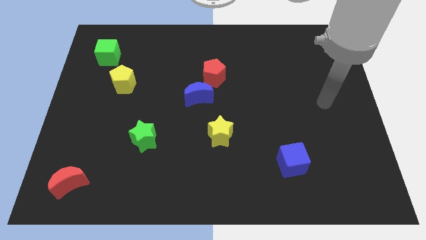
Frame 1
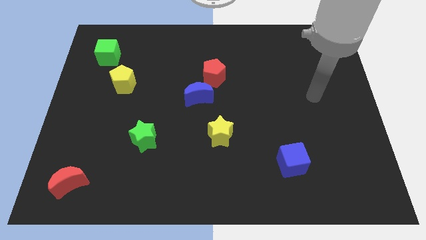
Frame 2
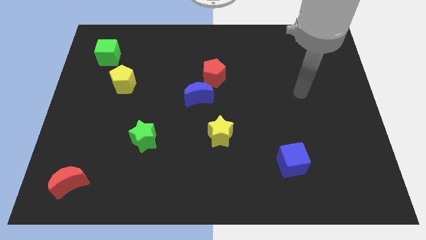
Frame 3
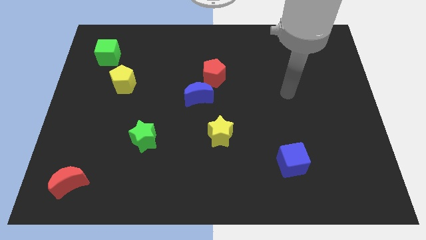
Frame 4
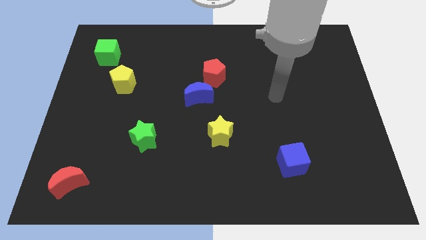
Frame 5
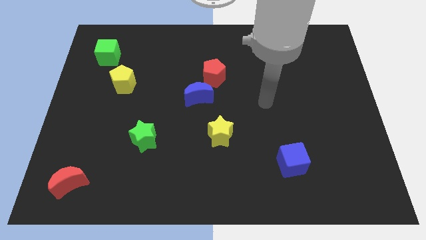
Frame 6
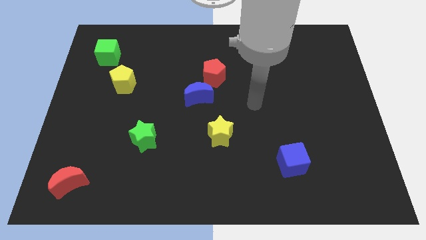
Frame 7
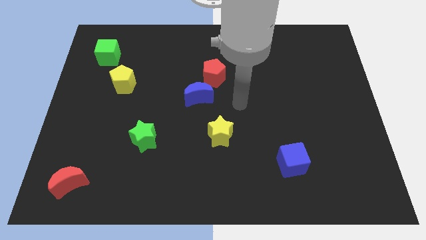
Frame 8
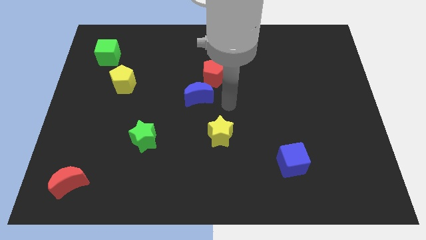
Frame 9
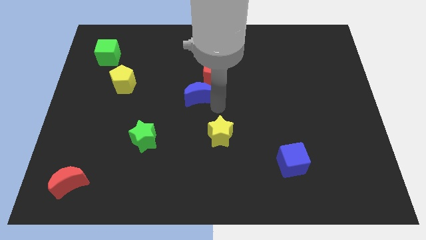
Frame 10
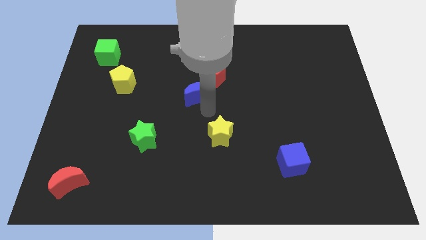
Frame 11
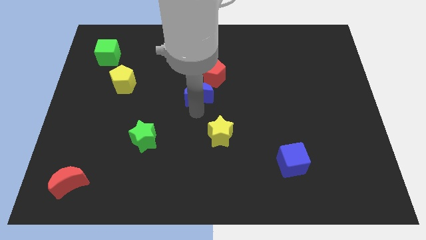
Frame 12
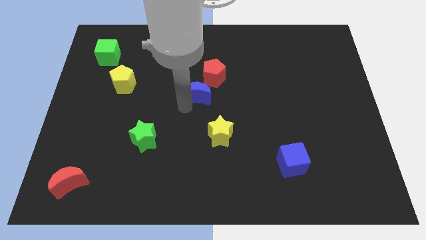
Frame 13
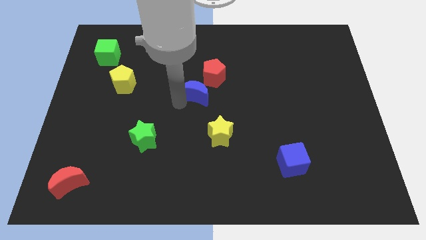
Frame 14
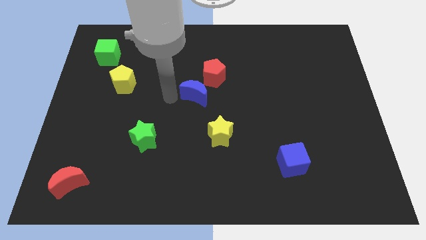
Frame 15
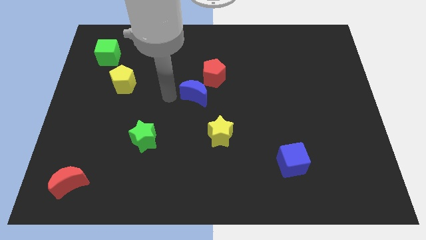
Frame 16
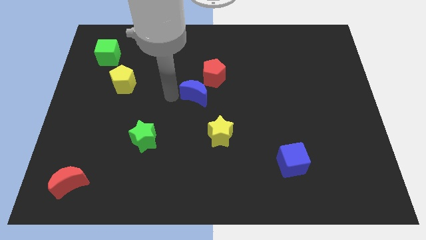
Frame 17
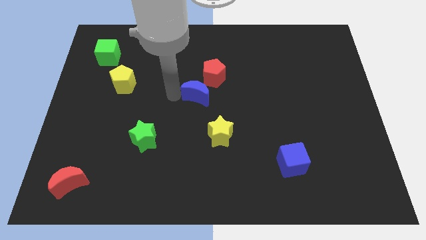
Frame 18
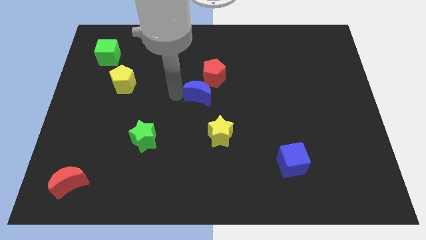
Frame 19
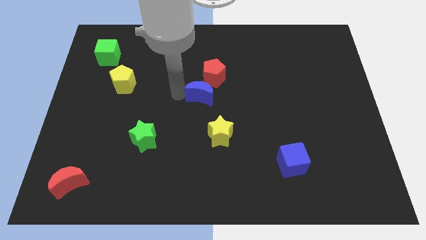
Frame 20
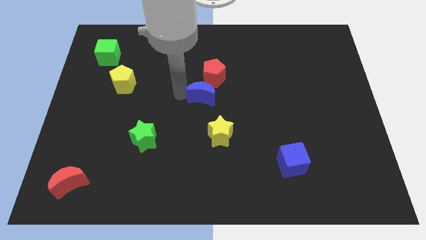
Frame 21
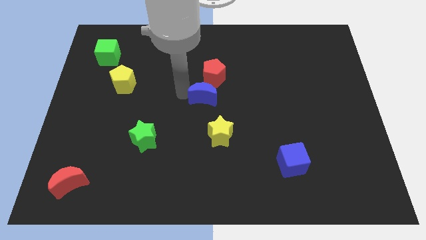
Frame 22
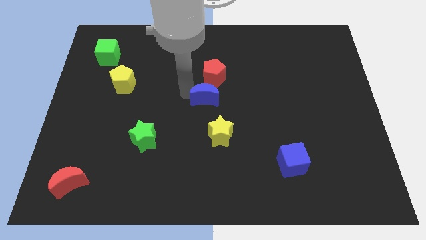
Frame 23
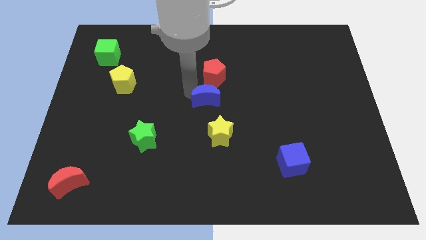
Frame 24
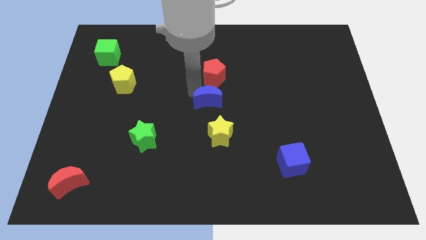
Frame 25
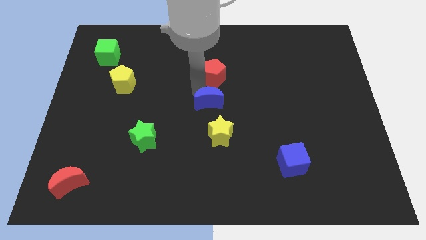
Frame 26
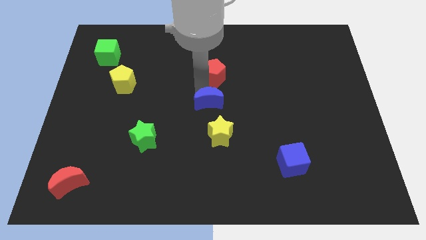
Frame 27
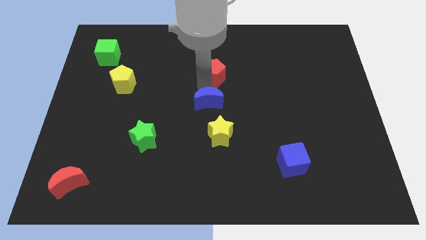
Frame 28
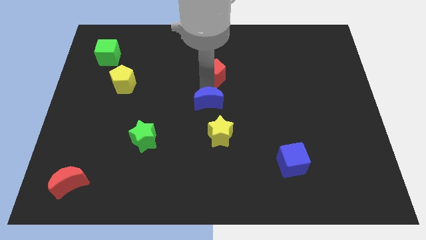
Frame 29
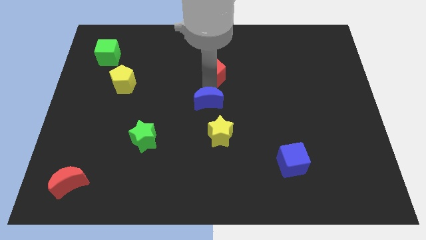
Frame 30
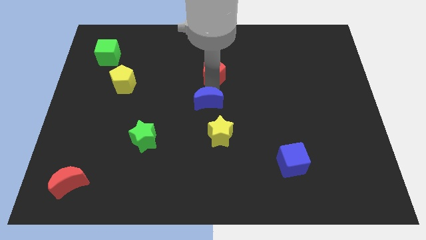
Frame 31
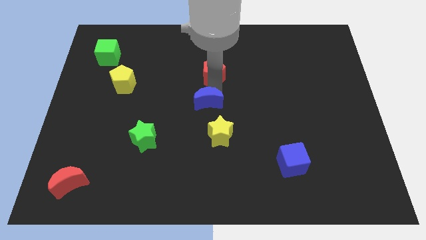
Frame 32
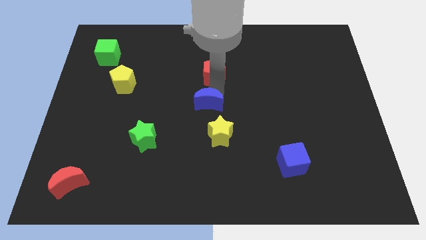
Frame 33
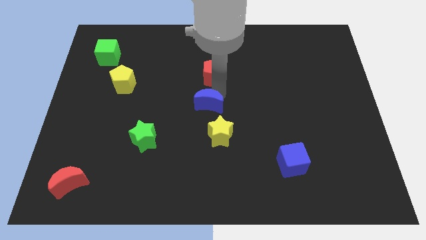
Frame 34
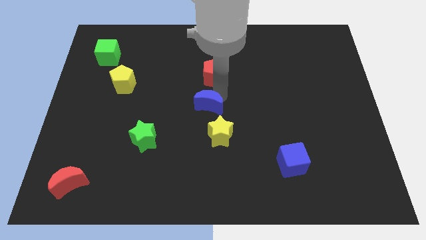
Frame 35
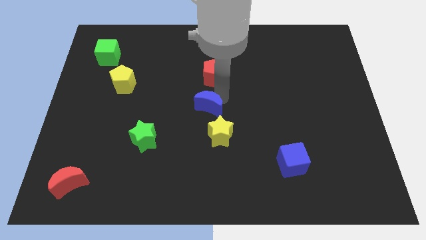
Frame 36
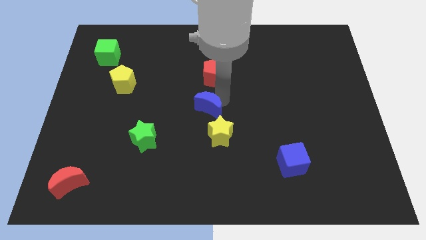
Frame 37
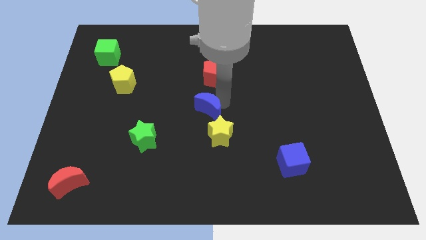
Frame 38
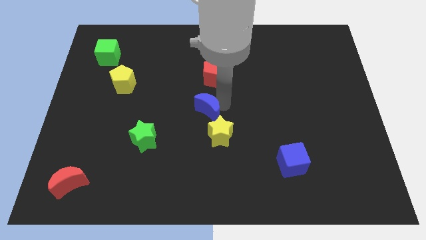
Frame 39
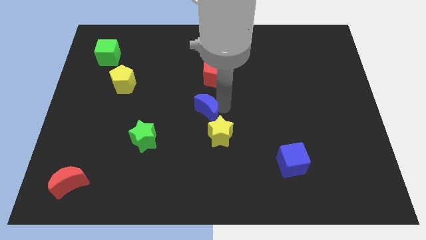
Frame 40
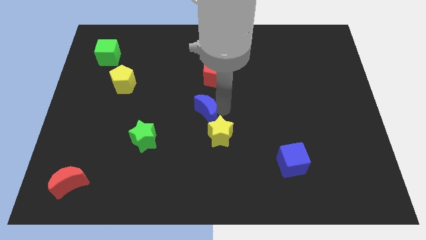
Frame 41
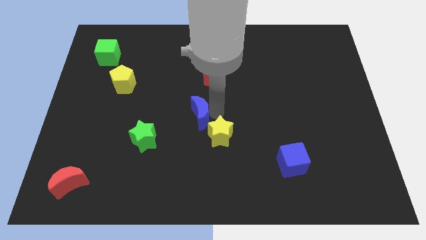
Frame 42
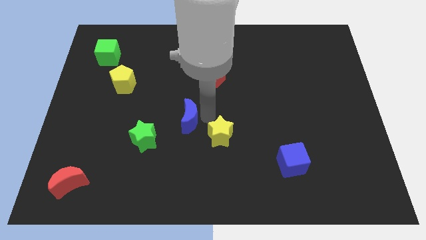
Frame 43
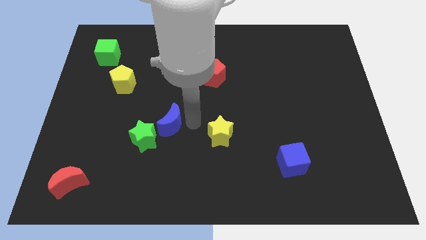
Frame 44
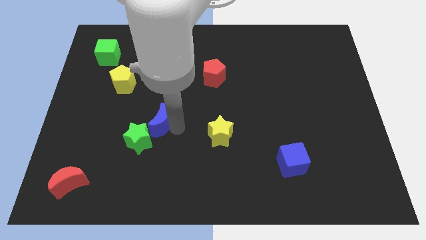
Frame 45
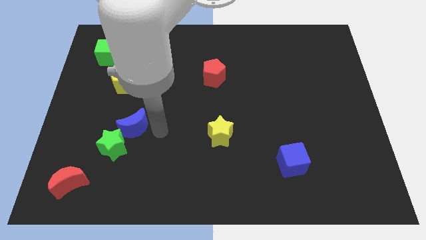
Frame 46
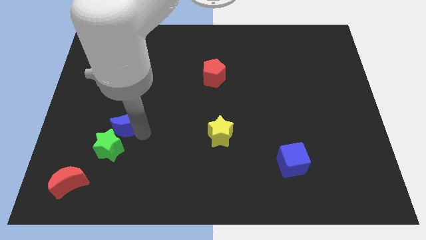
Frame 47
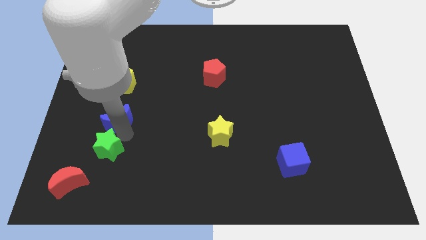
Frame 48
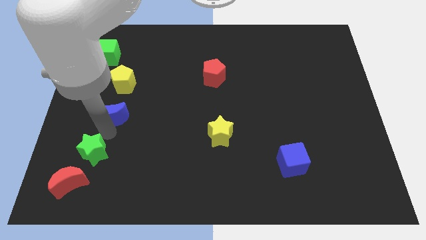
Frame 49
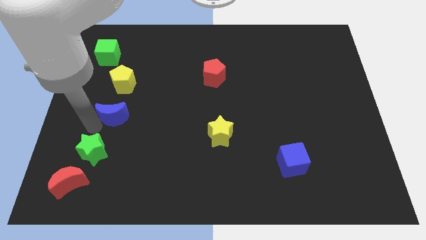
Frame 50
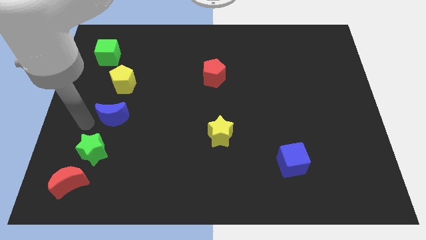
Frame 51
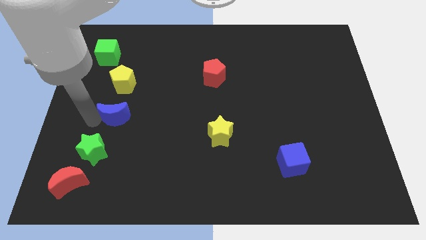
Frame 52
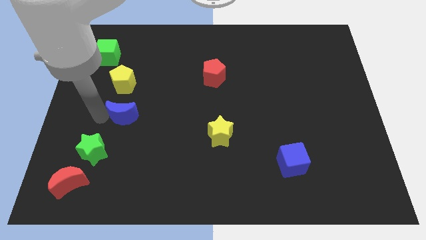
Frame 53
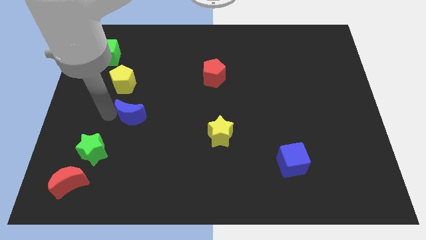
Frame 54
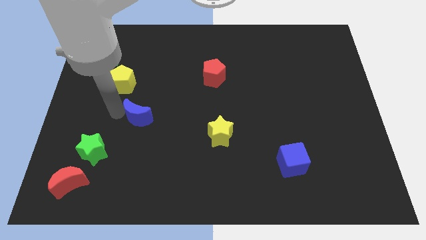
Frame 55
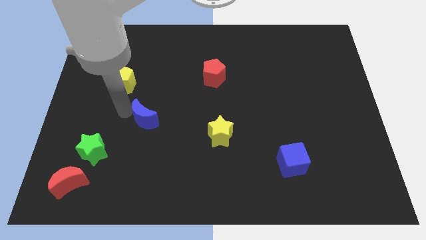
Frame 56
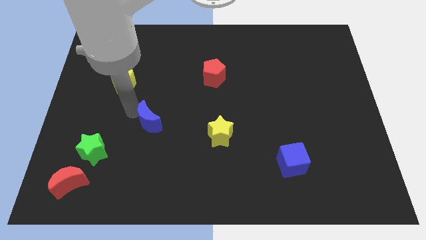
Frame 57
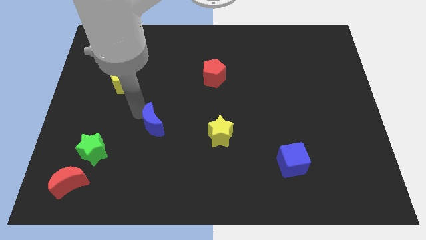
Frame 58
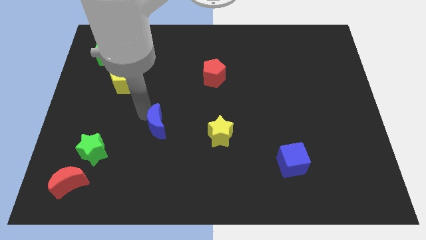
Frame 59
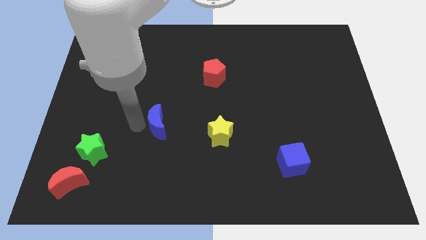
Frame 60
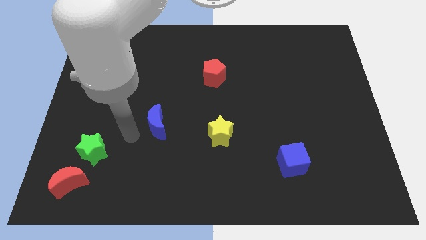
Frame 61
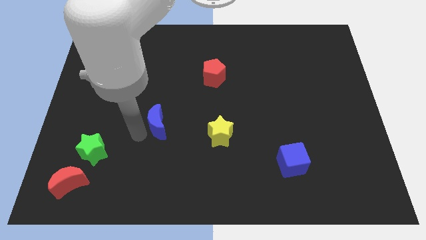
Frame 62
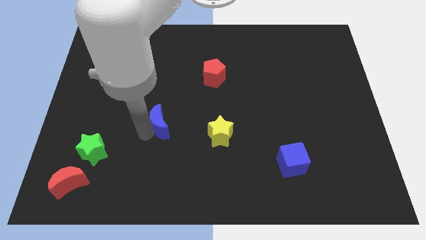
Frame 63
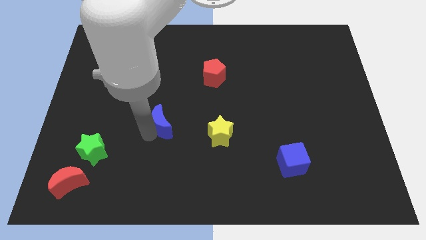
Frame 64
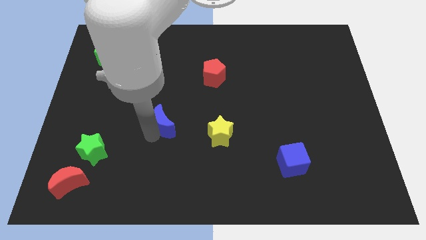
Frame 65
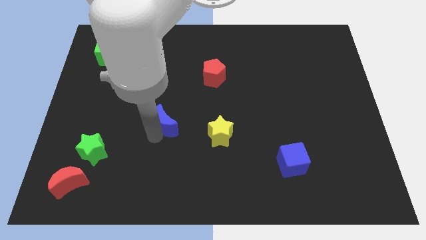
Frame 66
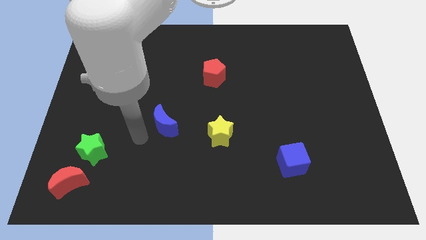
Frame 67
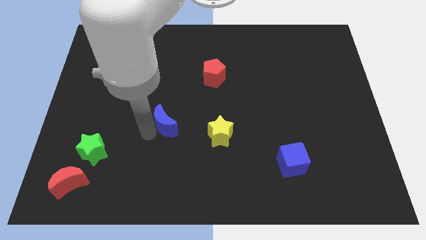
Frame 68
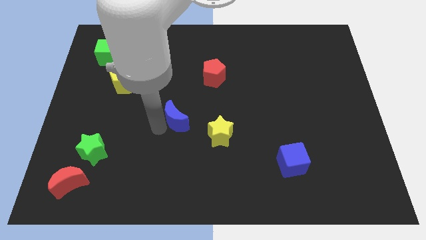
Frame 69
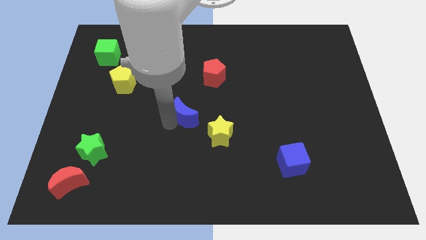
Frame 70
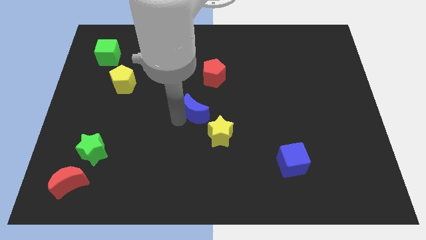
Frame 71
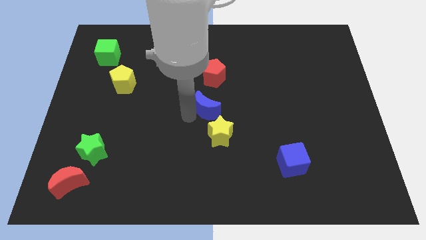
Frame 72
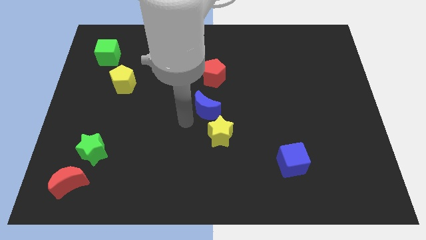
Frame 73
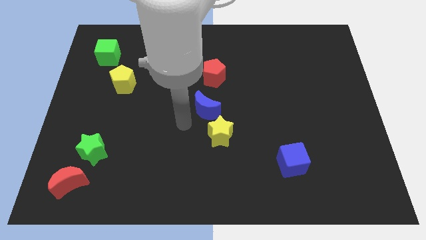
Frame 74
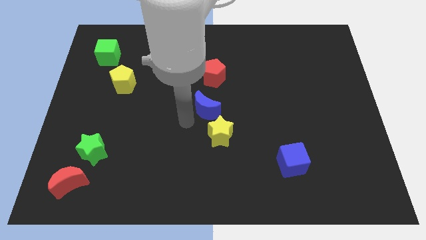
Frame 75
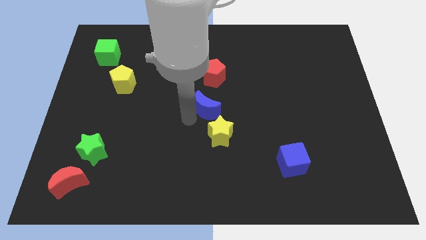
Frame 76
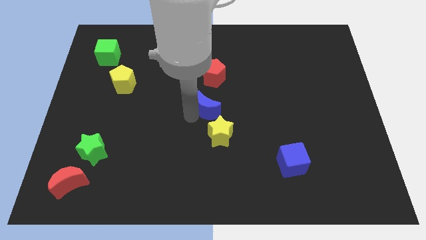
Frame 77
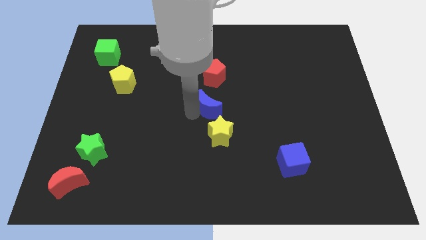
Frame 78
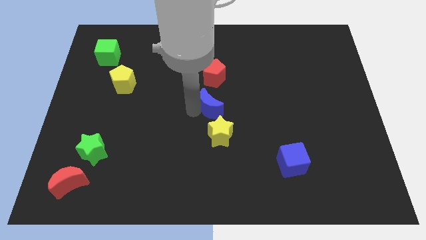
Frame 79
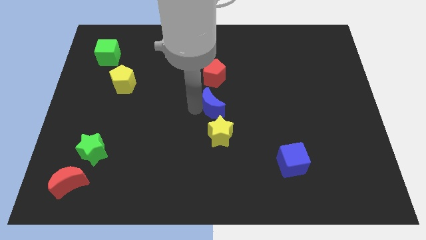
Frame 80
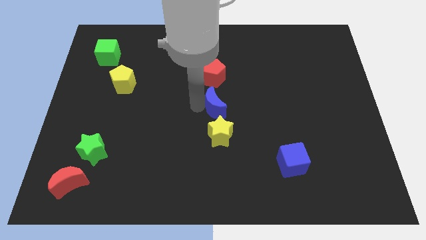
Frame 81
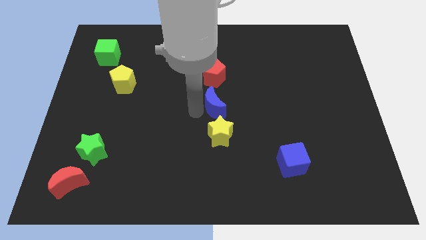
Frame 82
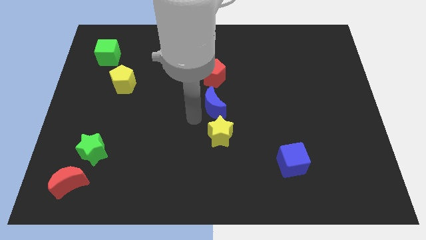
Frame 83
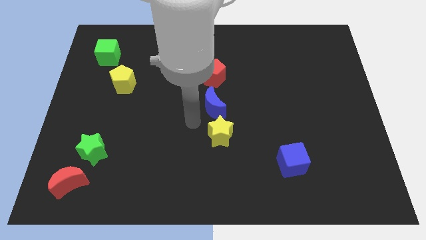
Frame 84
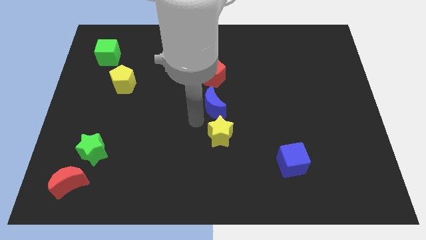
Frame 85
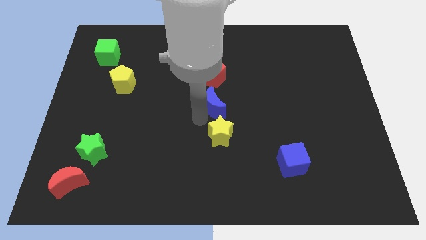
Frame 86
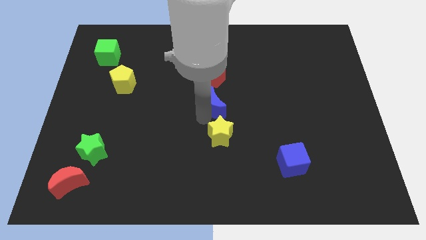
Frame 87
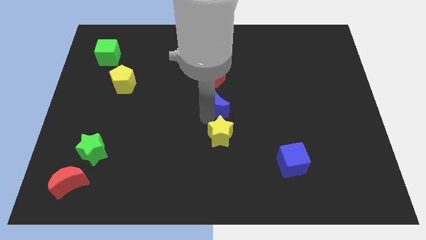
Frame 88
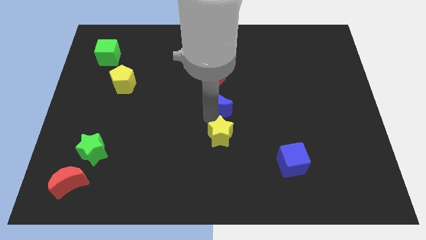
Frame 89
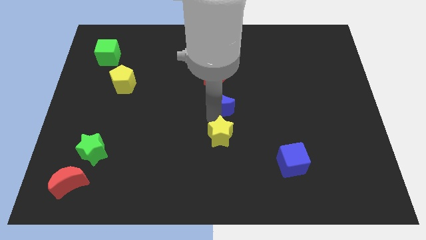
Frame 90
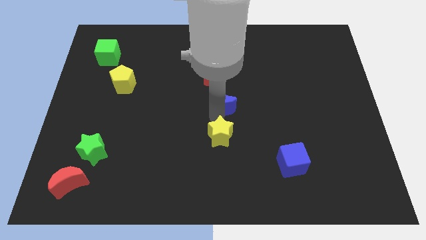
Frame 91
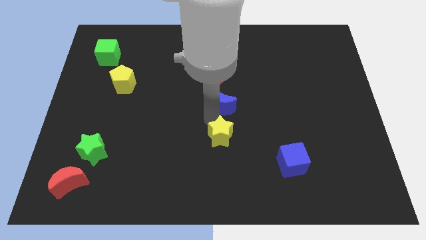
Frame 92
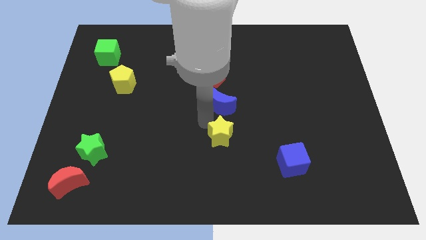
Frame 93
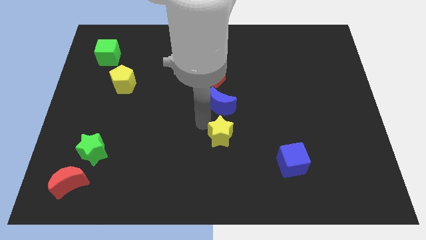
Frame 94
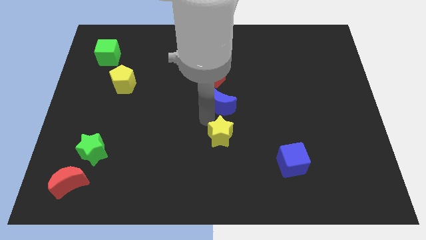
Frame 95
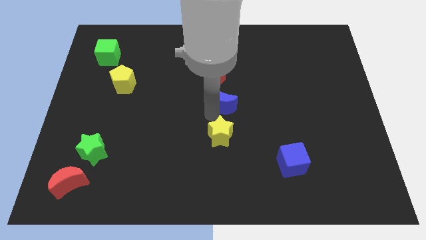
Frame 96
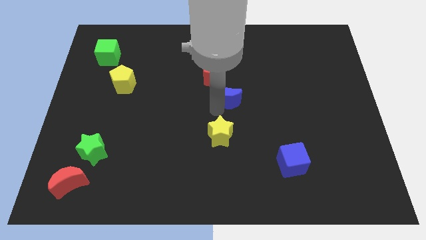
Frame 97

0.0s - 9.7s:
move the blue moon a little to the right
